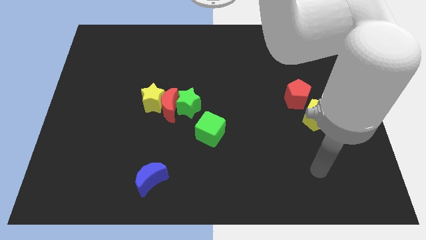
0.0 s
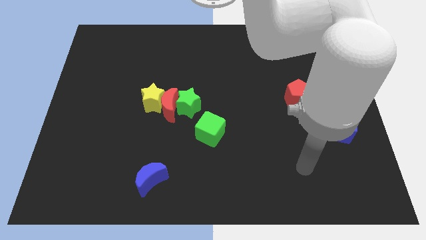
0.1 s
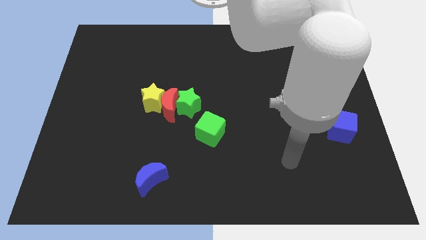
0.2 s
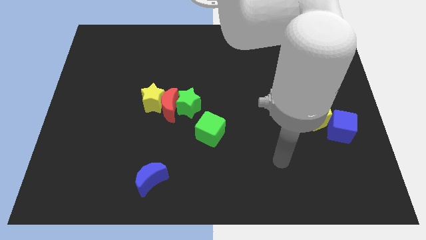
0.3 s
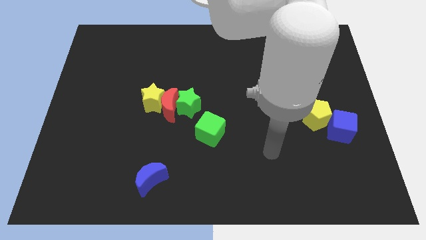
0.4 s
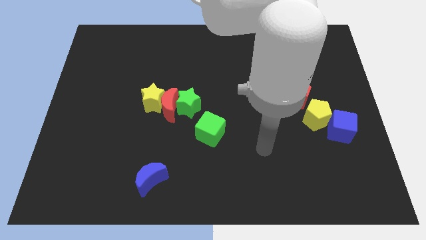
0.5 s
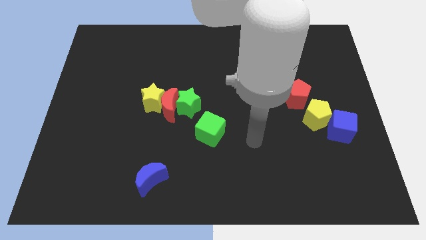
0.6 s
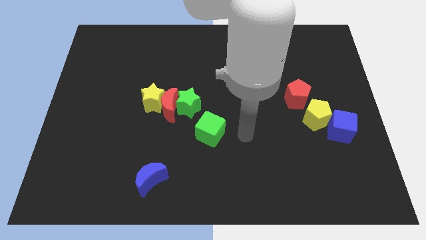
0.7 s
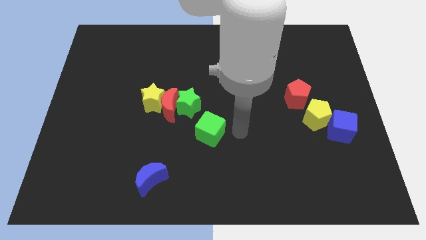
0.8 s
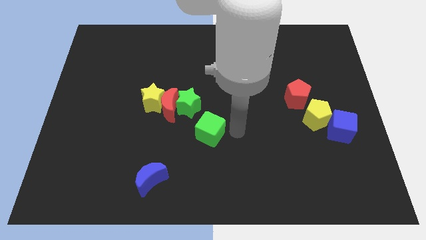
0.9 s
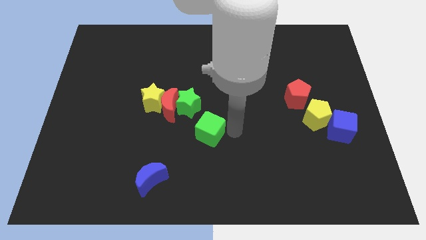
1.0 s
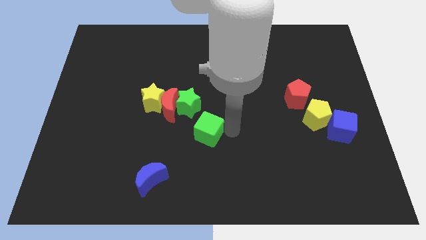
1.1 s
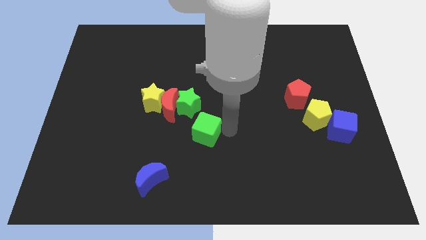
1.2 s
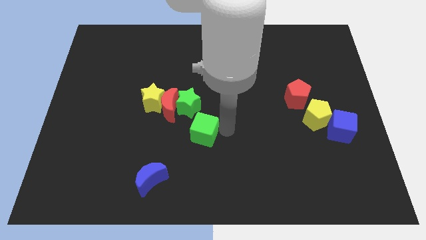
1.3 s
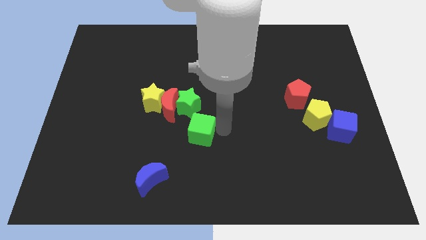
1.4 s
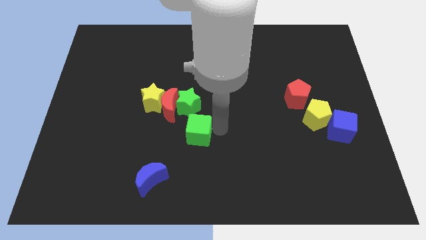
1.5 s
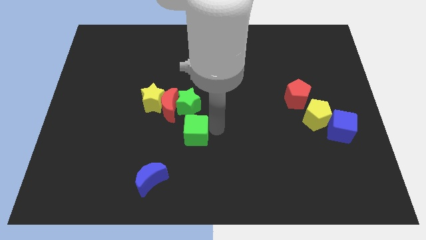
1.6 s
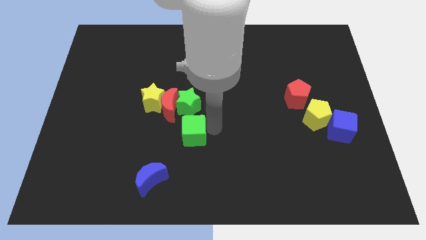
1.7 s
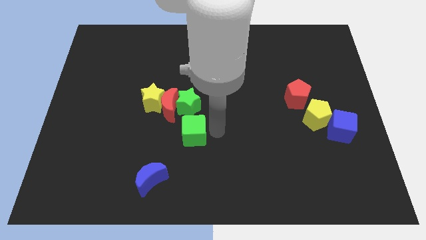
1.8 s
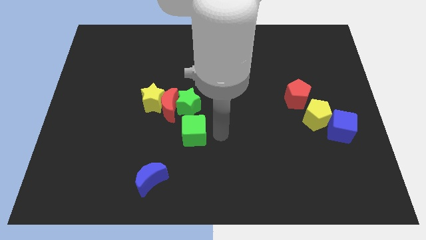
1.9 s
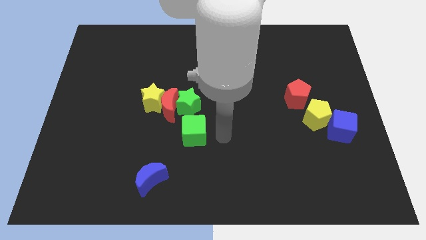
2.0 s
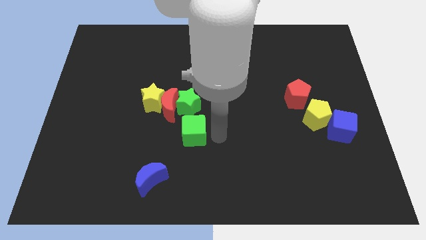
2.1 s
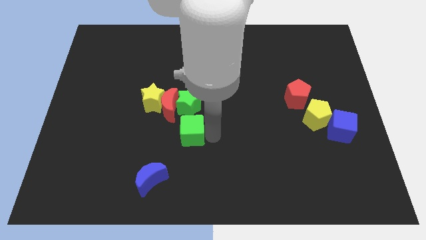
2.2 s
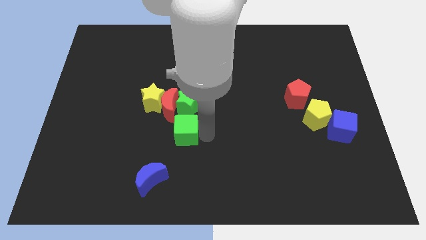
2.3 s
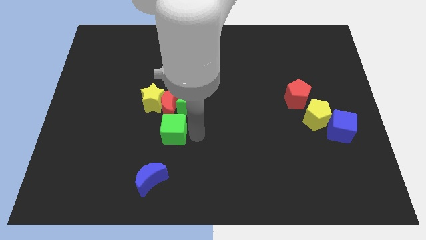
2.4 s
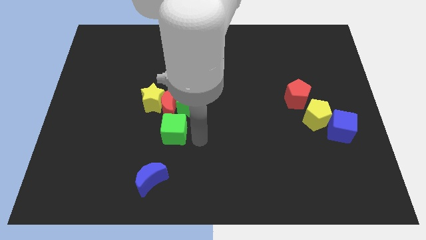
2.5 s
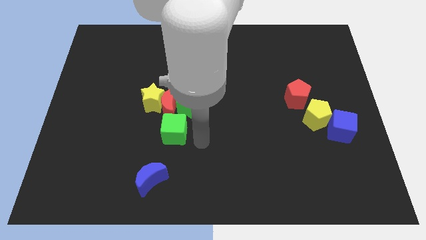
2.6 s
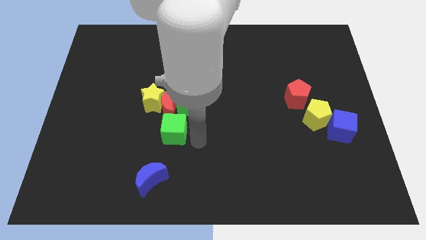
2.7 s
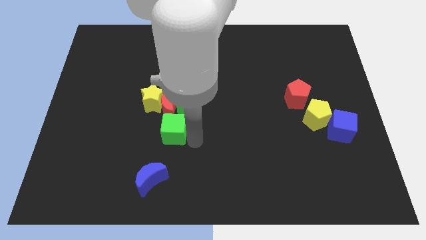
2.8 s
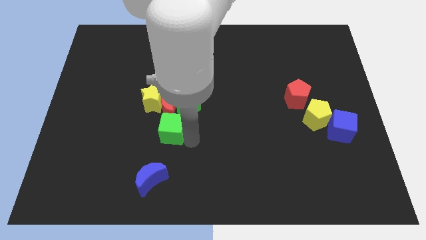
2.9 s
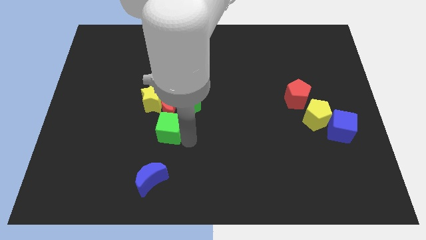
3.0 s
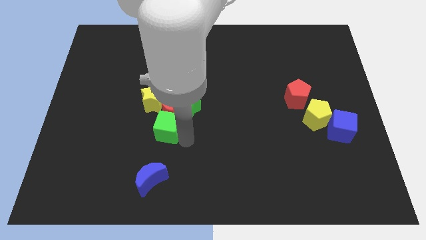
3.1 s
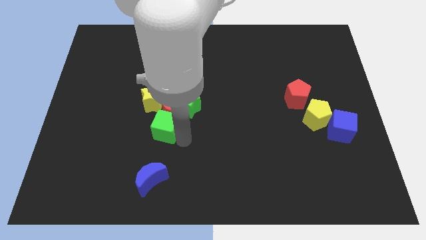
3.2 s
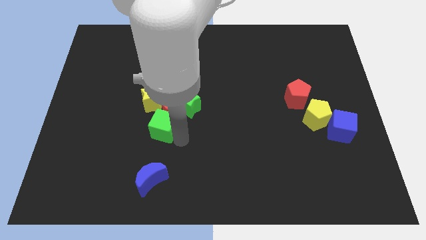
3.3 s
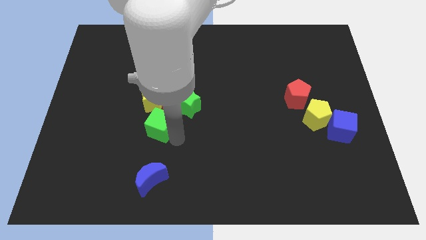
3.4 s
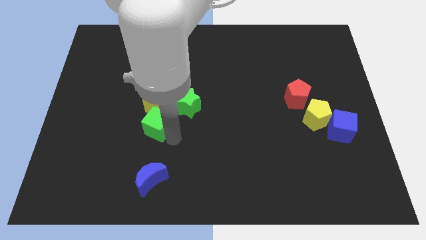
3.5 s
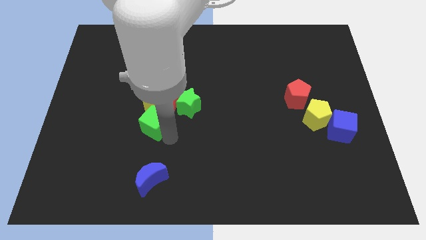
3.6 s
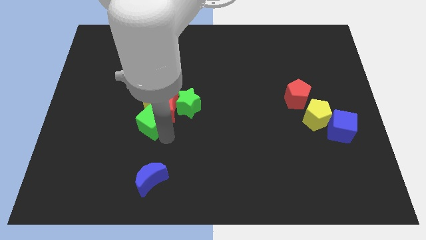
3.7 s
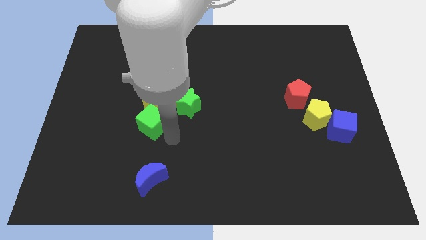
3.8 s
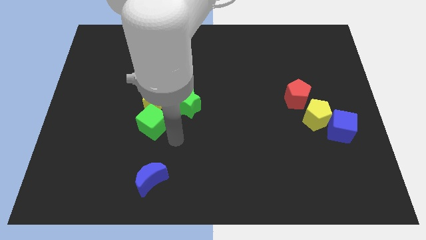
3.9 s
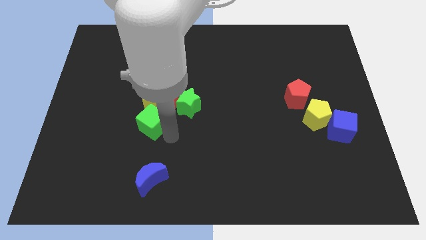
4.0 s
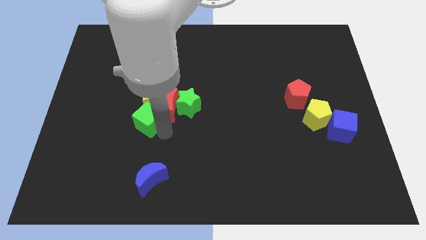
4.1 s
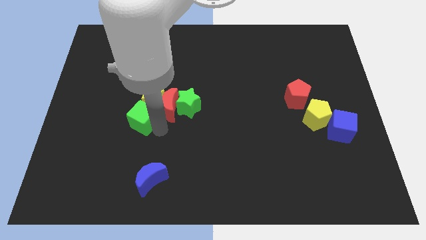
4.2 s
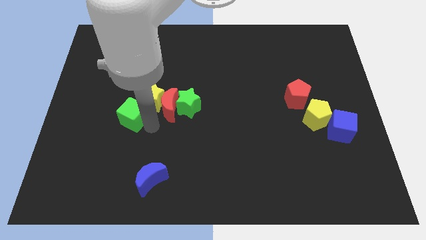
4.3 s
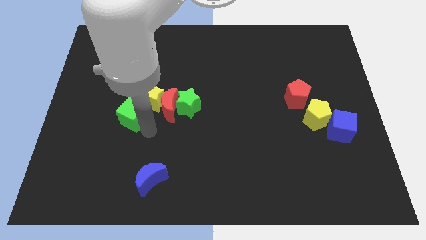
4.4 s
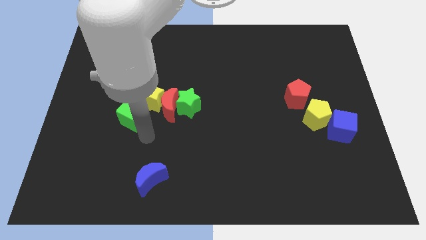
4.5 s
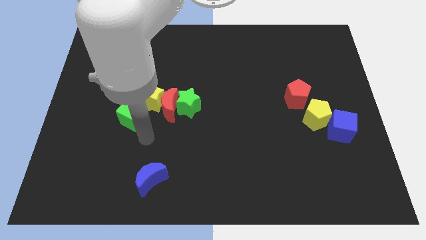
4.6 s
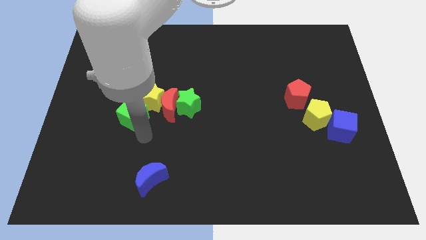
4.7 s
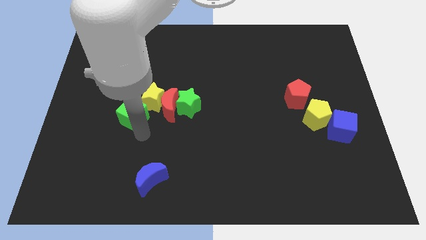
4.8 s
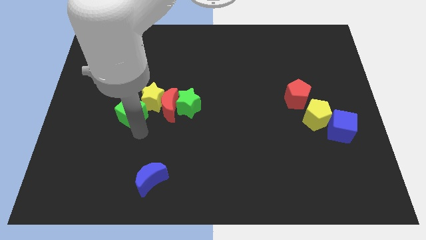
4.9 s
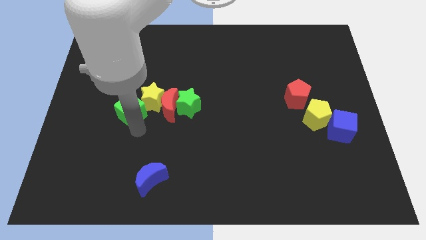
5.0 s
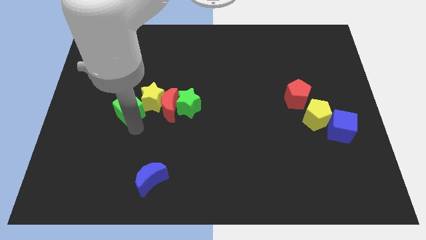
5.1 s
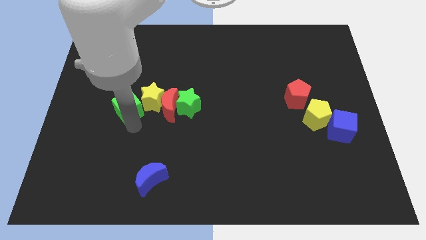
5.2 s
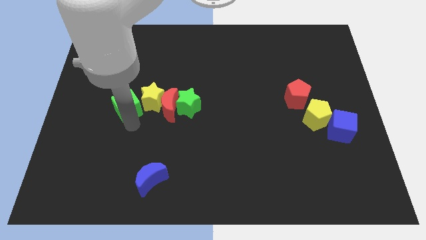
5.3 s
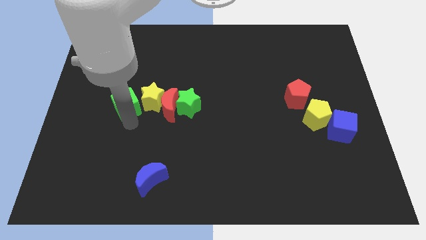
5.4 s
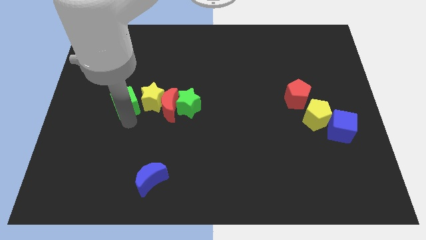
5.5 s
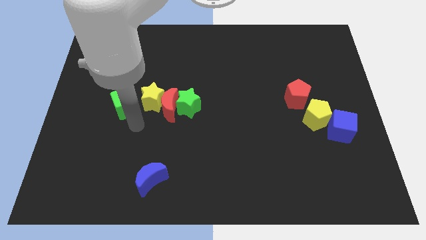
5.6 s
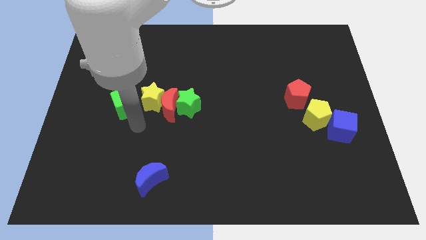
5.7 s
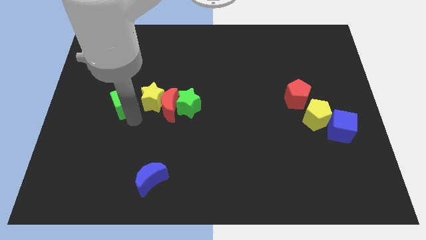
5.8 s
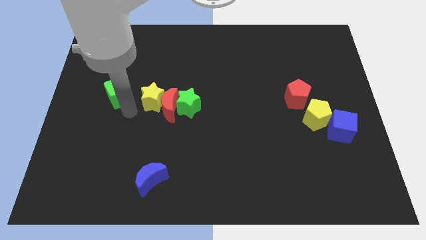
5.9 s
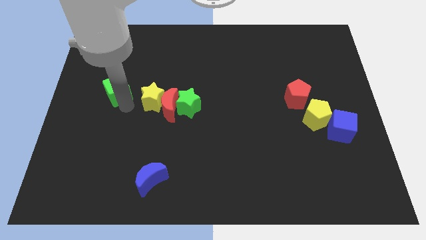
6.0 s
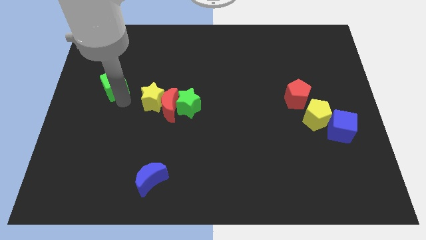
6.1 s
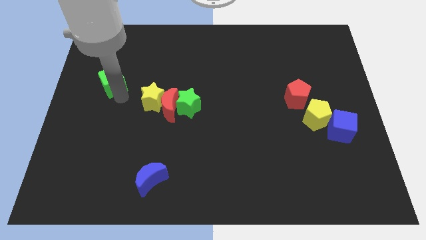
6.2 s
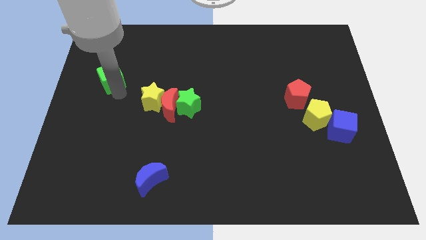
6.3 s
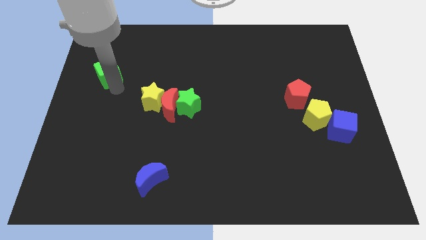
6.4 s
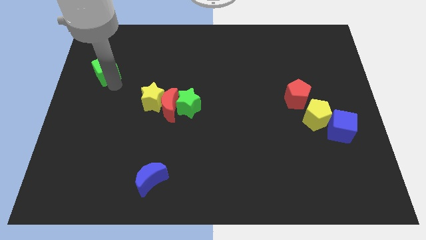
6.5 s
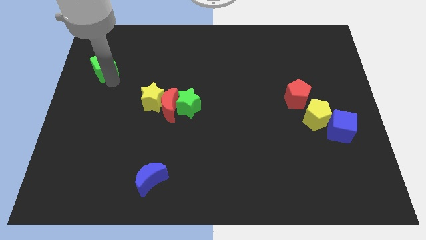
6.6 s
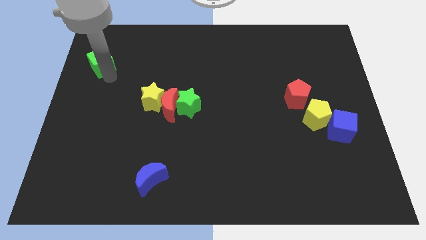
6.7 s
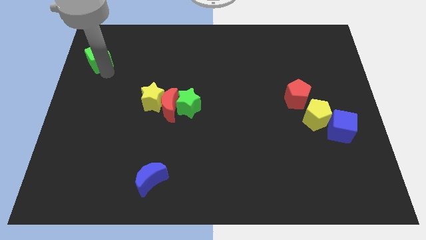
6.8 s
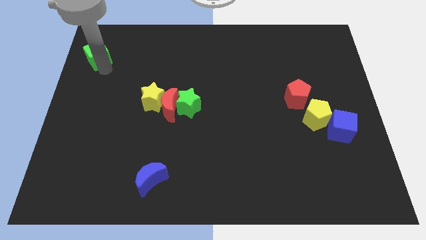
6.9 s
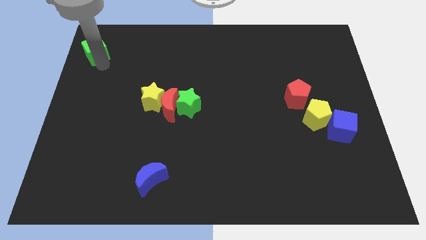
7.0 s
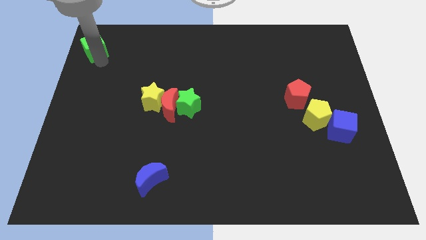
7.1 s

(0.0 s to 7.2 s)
put the green cube to the upper left corner
